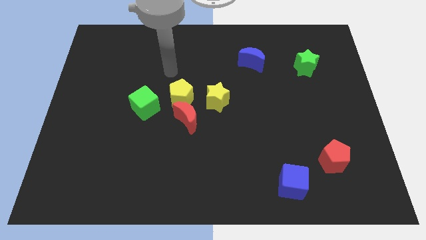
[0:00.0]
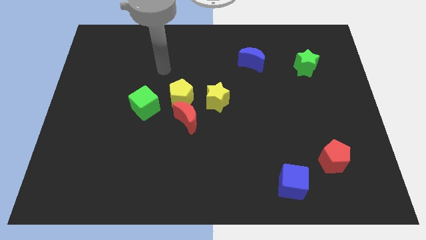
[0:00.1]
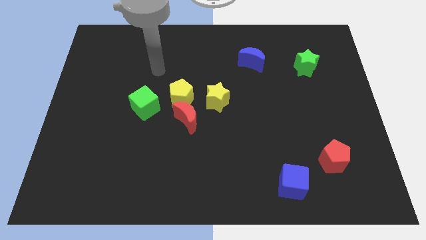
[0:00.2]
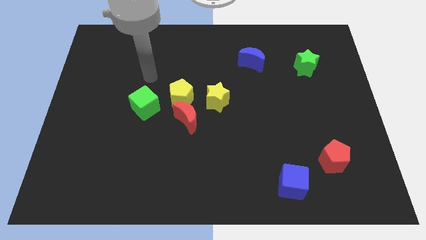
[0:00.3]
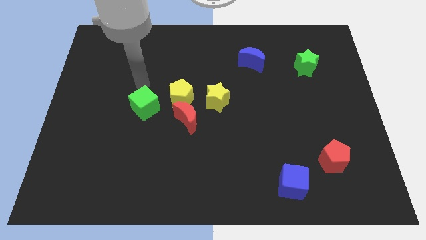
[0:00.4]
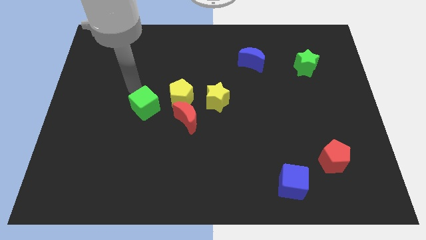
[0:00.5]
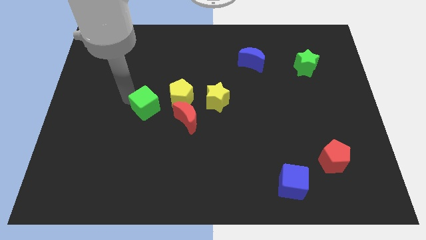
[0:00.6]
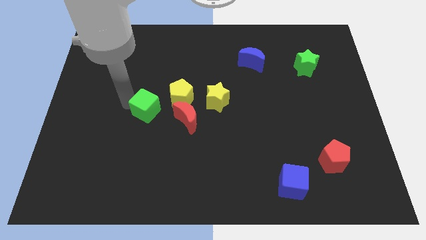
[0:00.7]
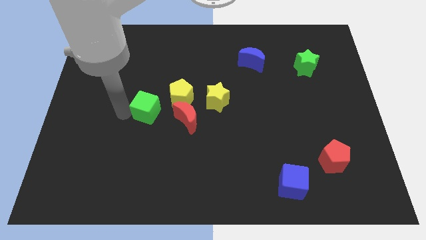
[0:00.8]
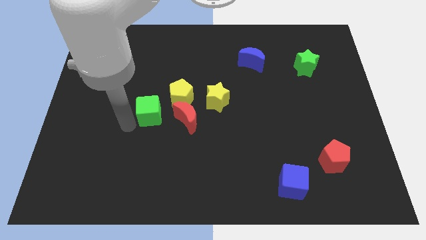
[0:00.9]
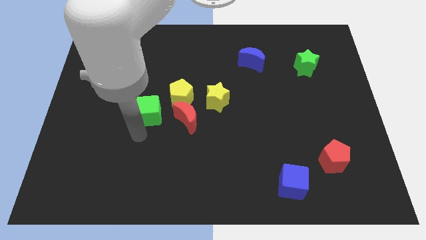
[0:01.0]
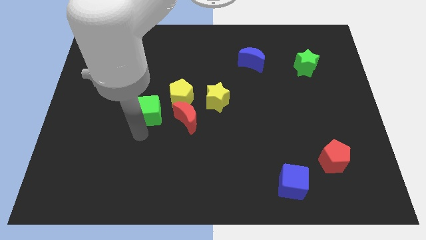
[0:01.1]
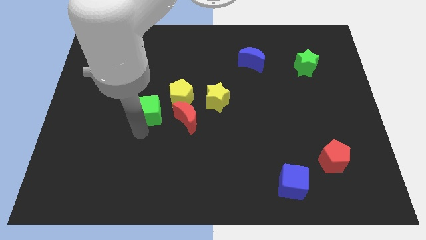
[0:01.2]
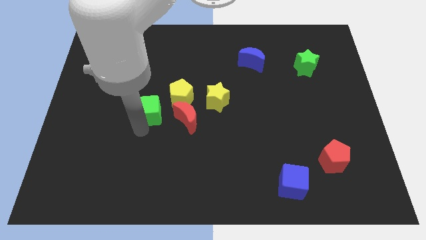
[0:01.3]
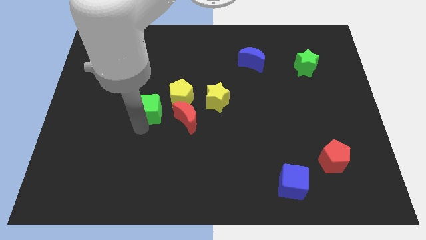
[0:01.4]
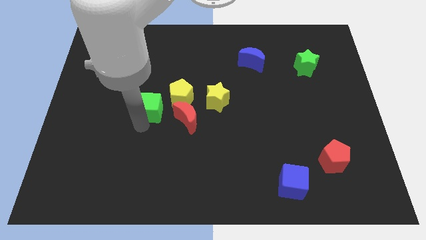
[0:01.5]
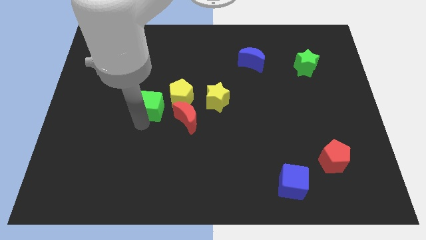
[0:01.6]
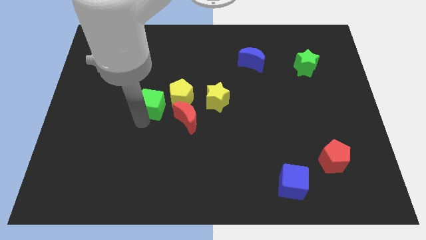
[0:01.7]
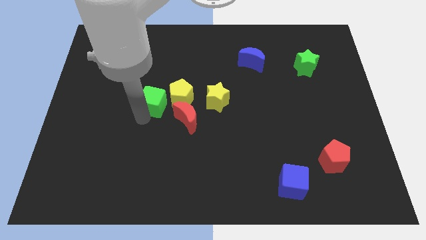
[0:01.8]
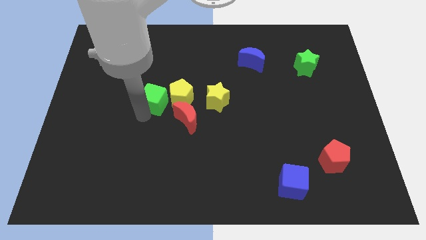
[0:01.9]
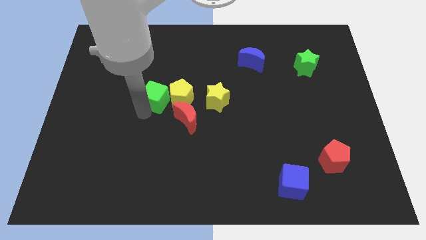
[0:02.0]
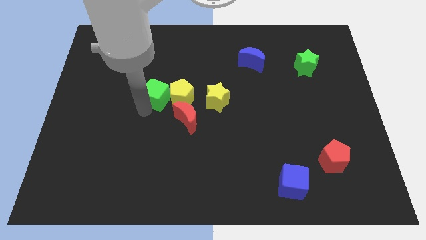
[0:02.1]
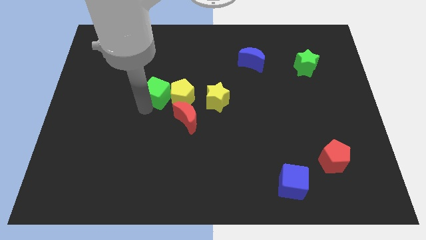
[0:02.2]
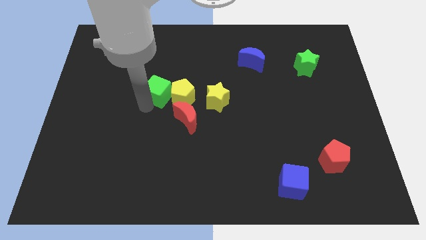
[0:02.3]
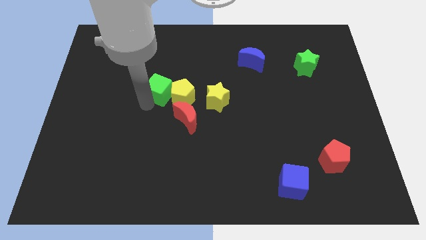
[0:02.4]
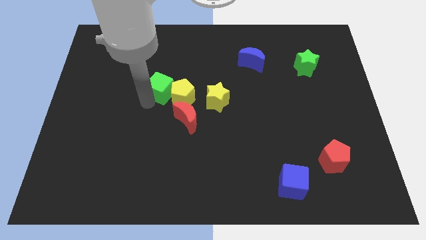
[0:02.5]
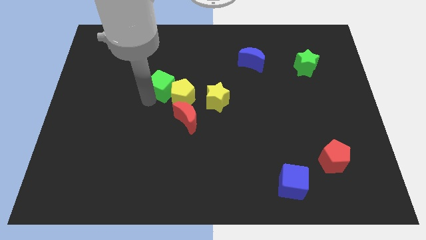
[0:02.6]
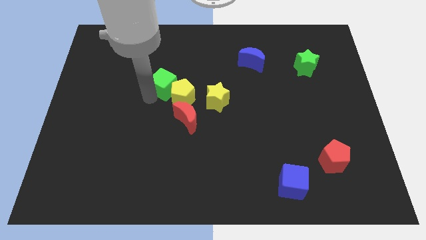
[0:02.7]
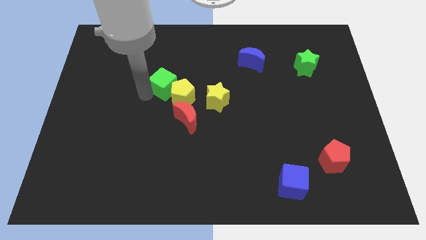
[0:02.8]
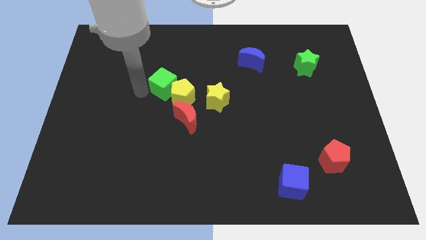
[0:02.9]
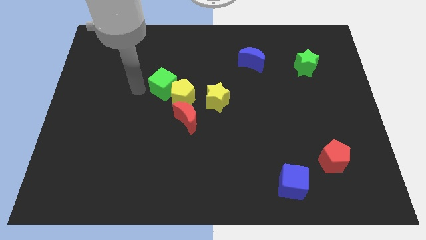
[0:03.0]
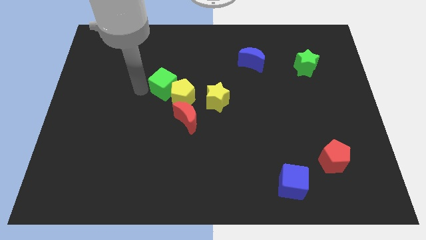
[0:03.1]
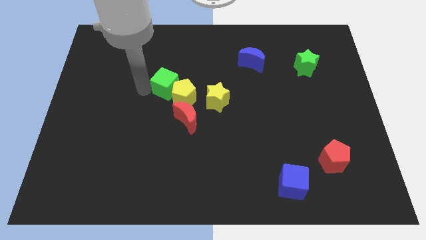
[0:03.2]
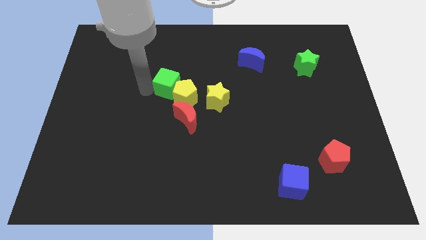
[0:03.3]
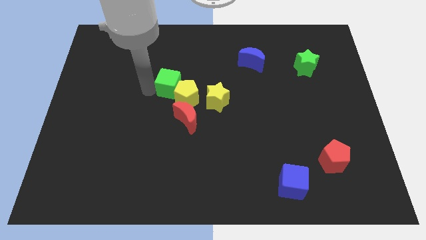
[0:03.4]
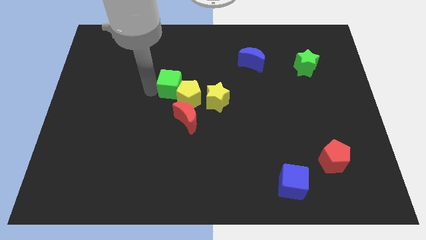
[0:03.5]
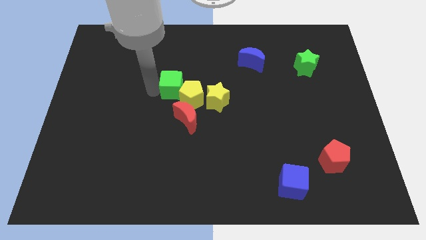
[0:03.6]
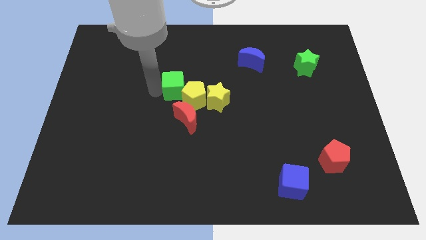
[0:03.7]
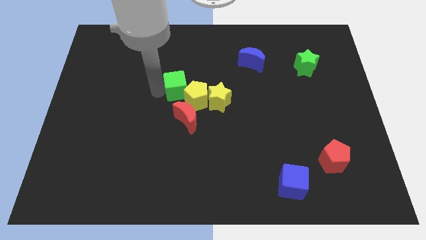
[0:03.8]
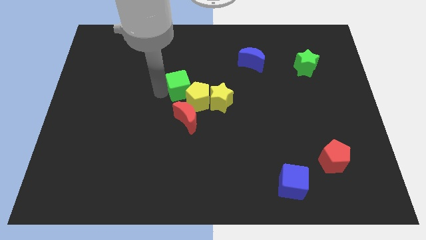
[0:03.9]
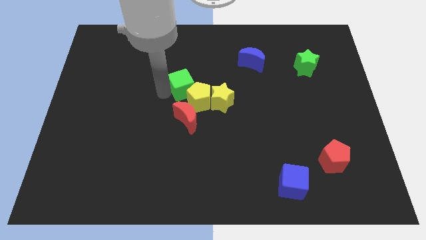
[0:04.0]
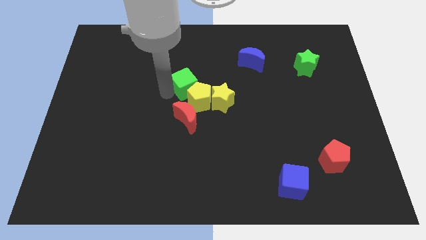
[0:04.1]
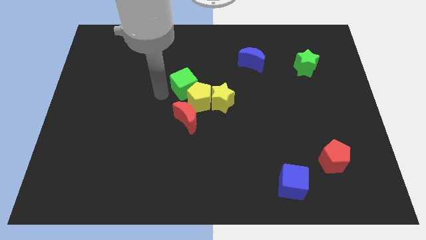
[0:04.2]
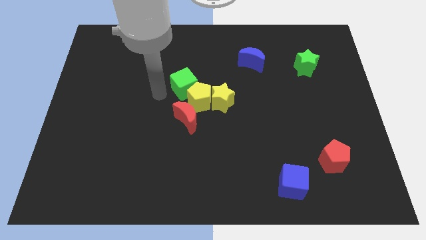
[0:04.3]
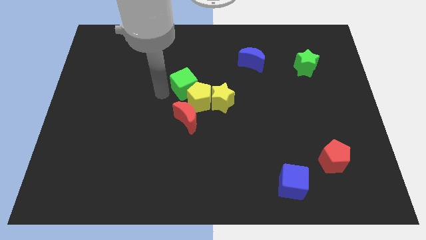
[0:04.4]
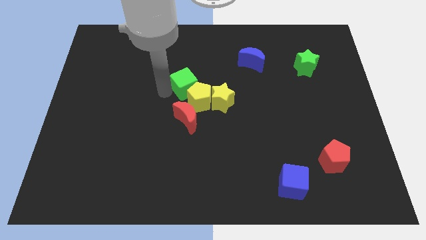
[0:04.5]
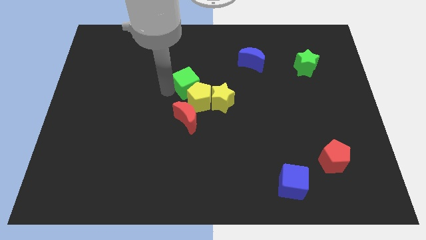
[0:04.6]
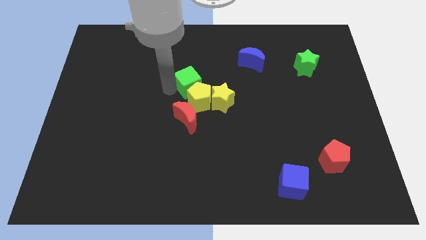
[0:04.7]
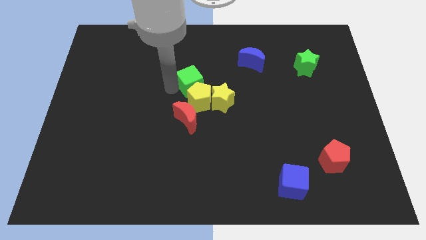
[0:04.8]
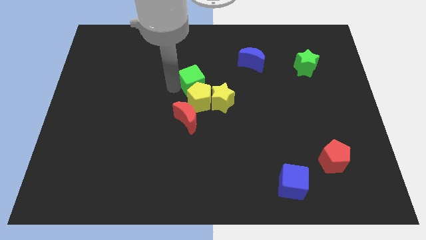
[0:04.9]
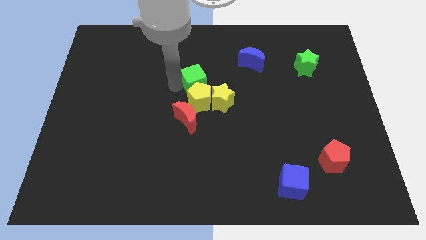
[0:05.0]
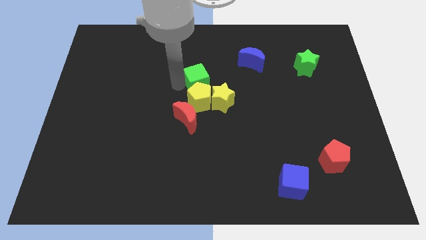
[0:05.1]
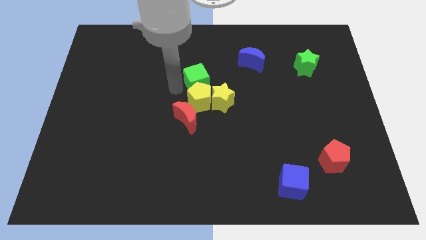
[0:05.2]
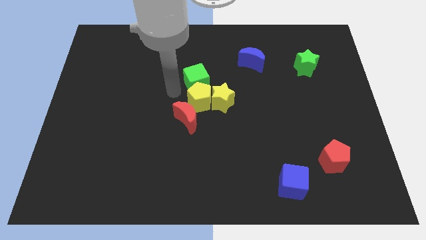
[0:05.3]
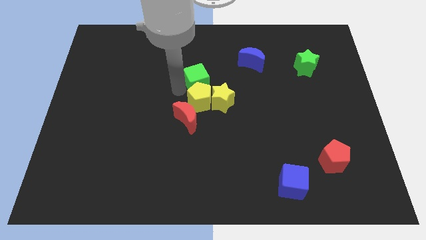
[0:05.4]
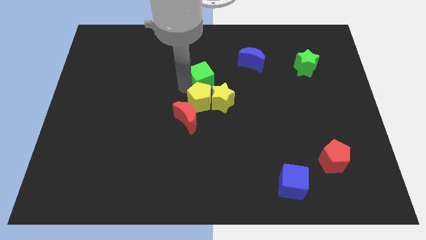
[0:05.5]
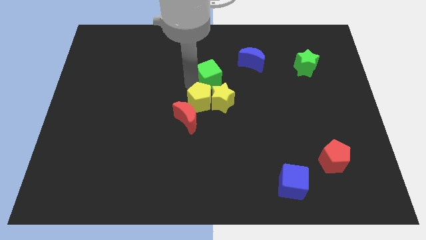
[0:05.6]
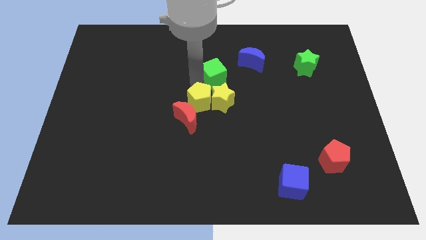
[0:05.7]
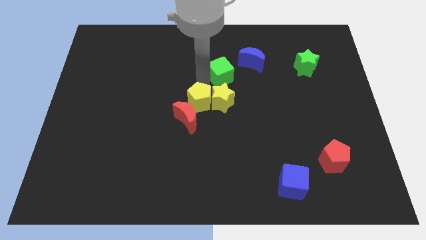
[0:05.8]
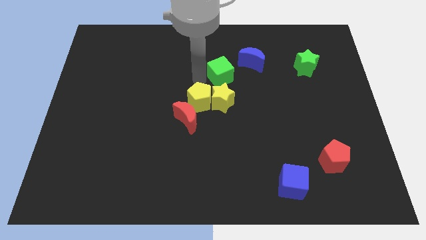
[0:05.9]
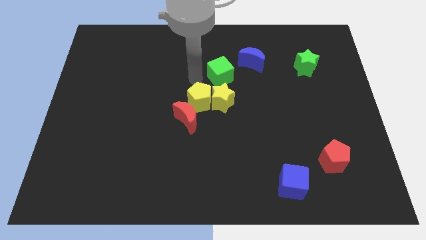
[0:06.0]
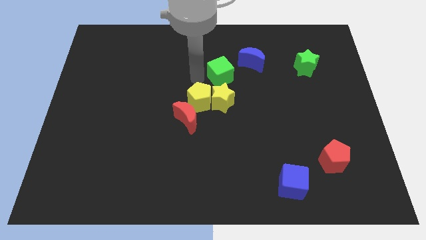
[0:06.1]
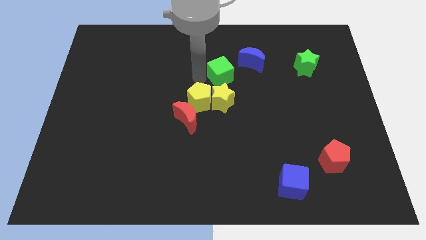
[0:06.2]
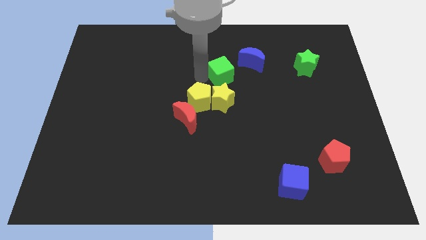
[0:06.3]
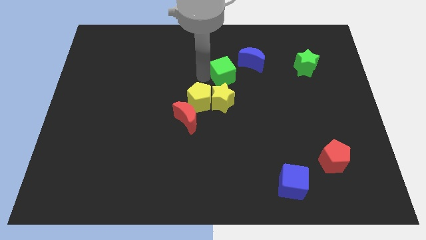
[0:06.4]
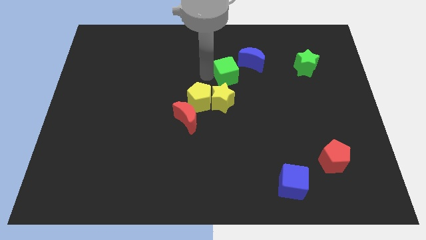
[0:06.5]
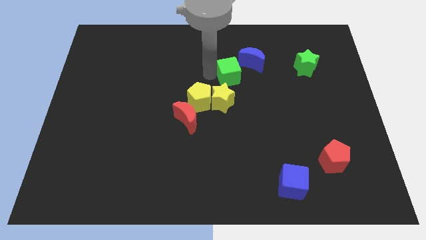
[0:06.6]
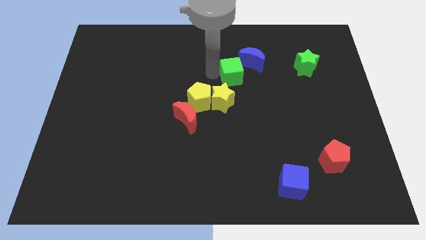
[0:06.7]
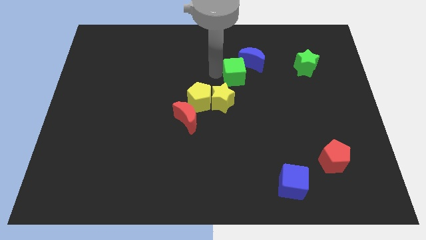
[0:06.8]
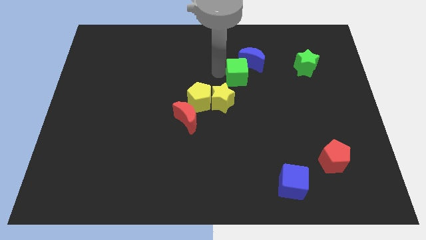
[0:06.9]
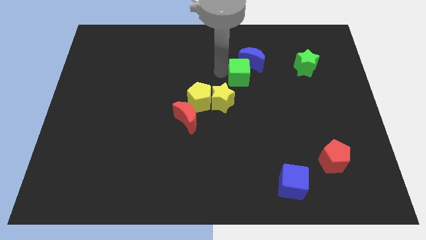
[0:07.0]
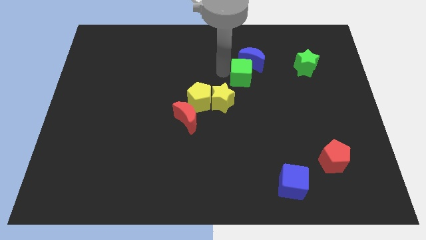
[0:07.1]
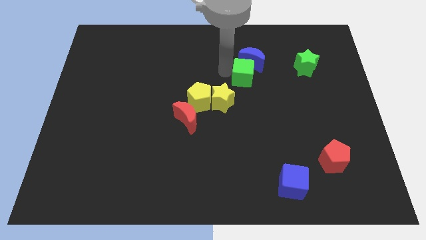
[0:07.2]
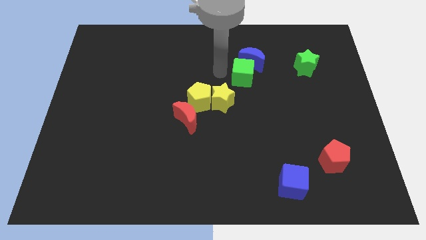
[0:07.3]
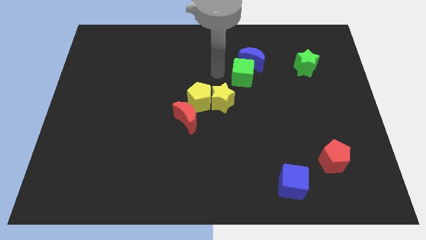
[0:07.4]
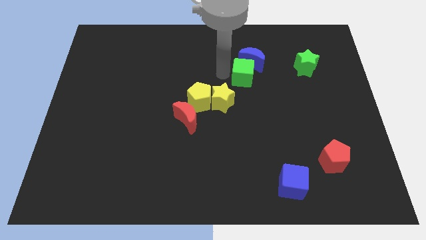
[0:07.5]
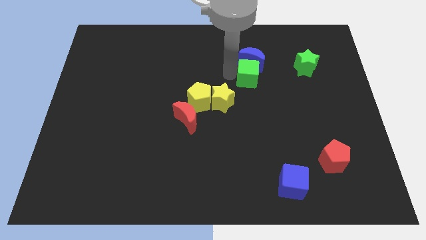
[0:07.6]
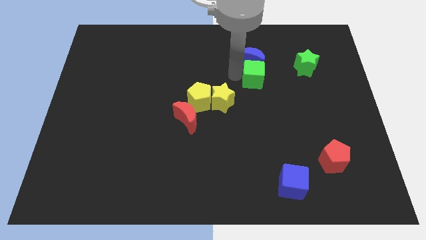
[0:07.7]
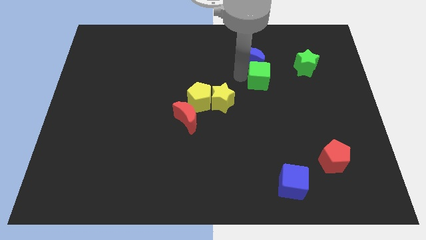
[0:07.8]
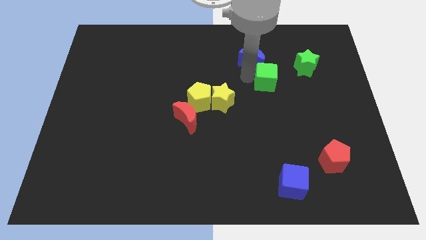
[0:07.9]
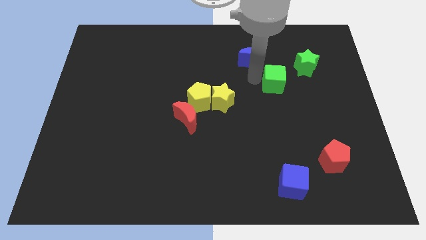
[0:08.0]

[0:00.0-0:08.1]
push the green cube diagonally down and to the left of the green star

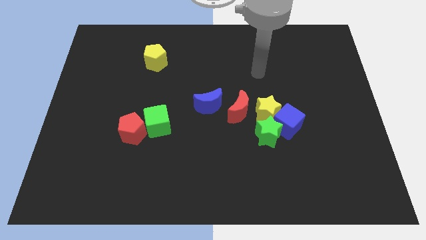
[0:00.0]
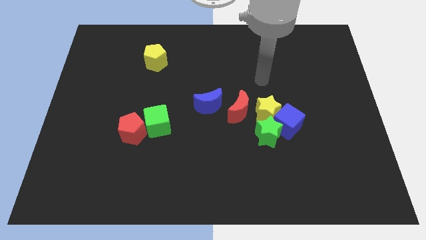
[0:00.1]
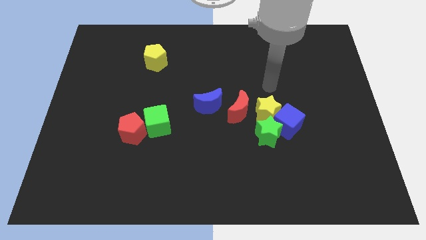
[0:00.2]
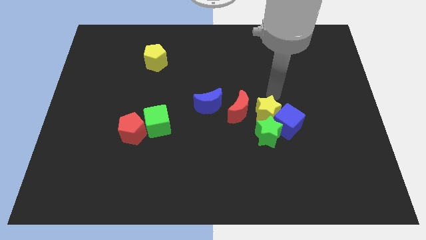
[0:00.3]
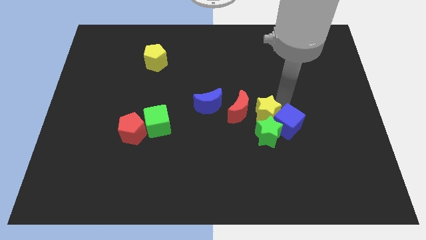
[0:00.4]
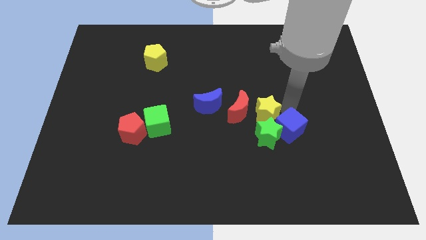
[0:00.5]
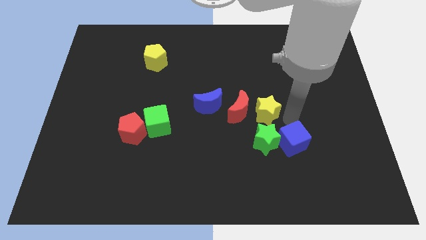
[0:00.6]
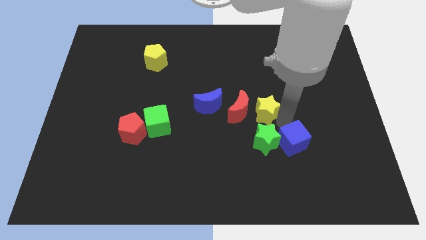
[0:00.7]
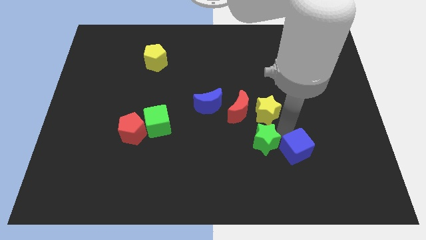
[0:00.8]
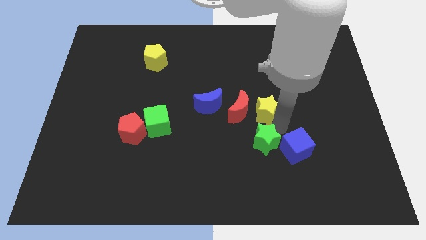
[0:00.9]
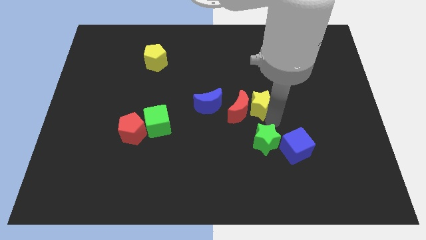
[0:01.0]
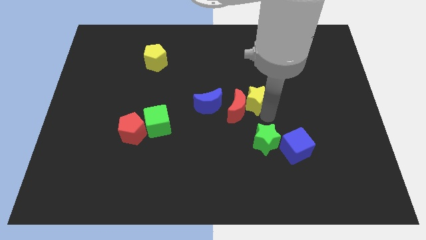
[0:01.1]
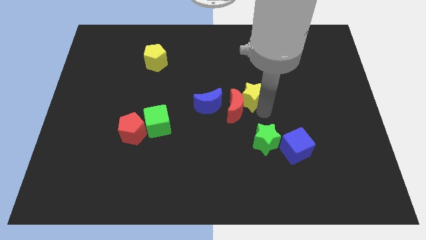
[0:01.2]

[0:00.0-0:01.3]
slide the yellow star to the top of the red moon
